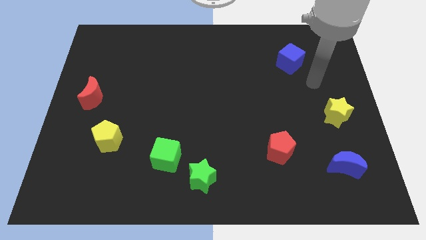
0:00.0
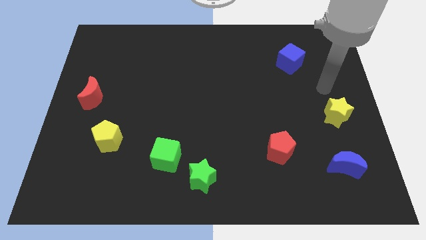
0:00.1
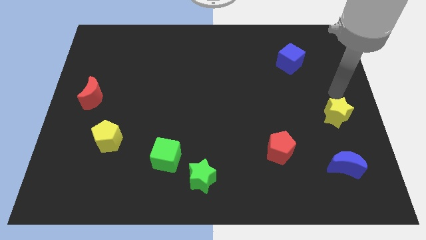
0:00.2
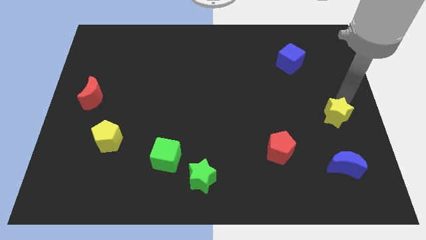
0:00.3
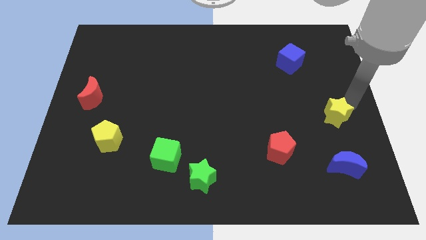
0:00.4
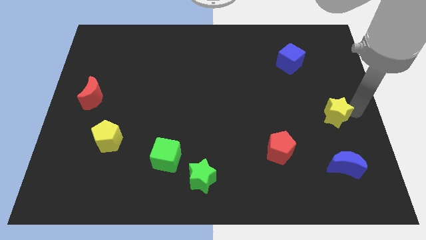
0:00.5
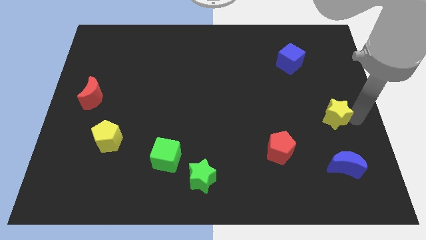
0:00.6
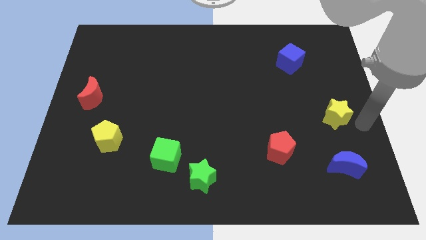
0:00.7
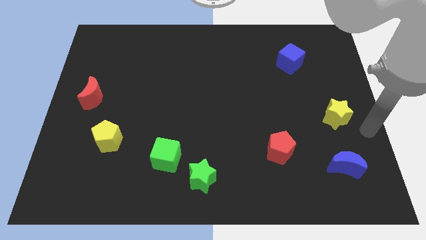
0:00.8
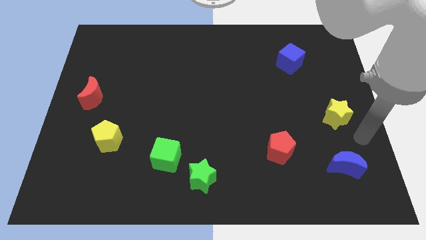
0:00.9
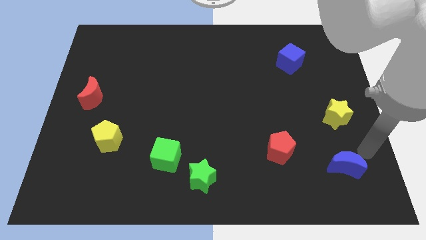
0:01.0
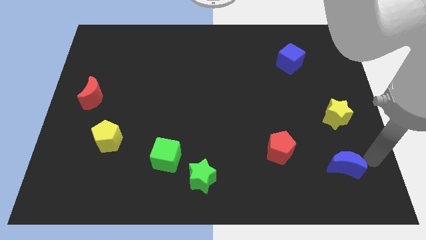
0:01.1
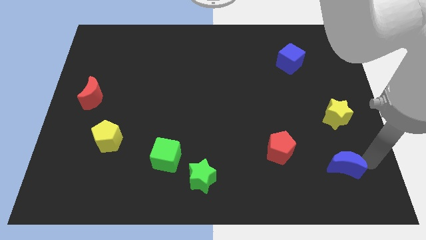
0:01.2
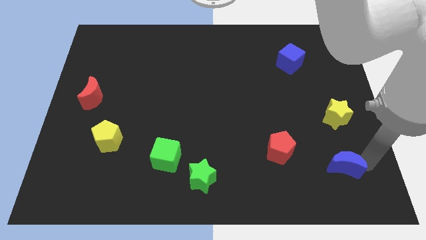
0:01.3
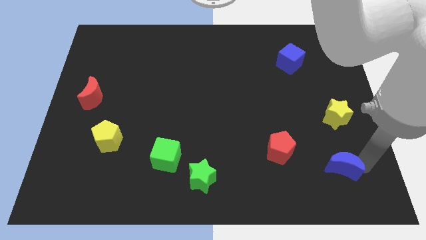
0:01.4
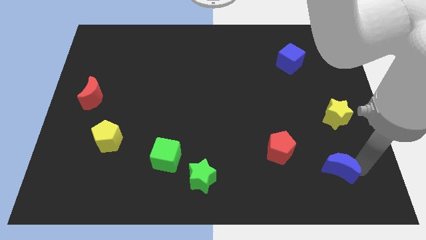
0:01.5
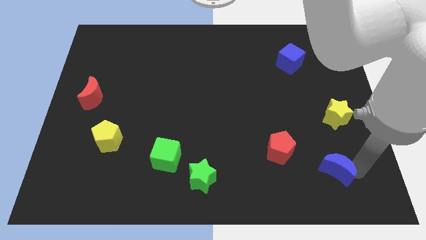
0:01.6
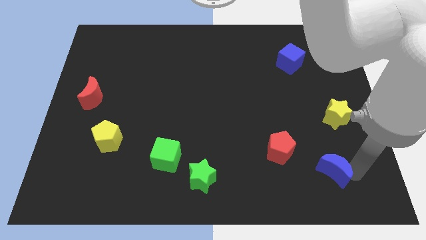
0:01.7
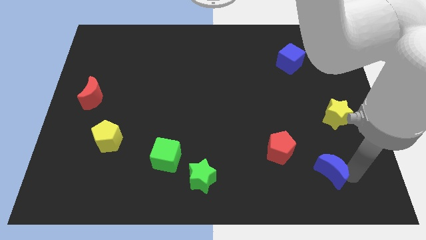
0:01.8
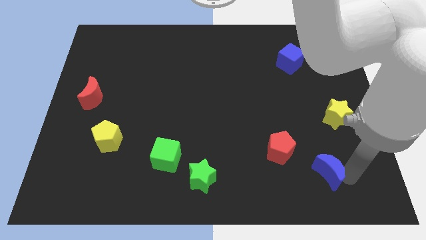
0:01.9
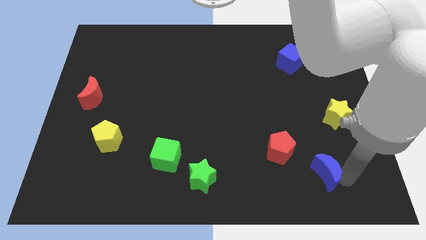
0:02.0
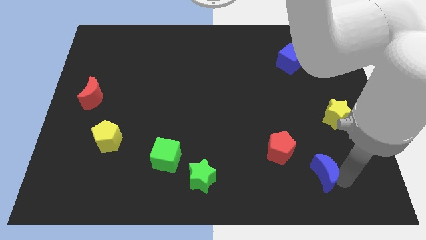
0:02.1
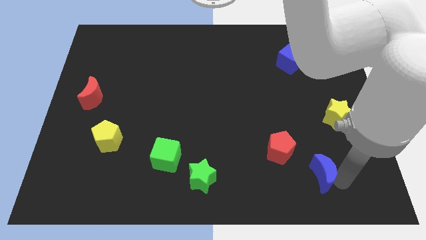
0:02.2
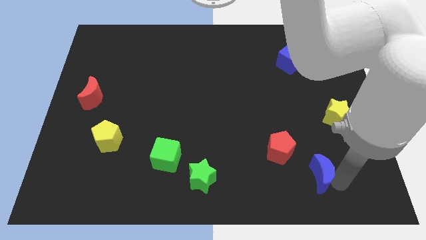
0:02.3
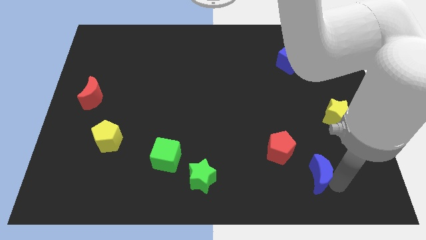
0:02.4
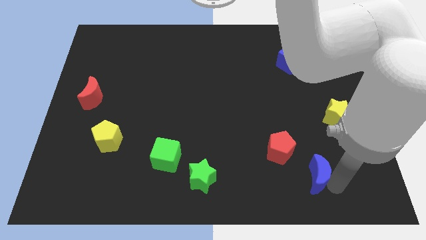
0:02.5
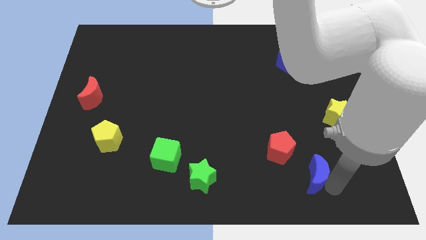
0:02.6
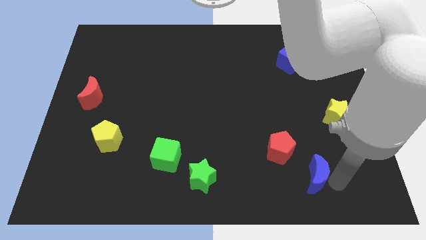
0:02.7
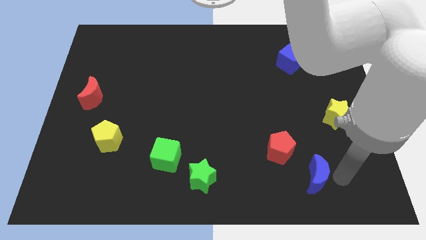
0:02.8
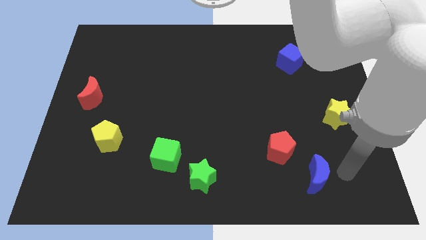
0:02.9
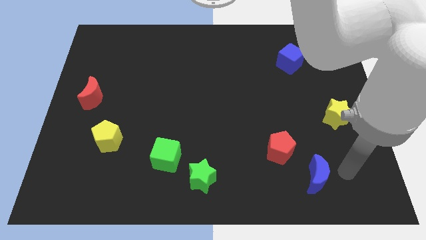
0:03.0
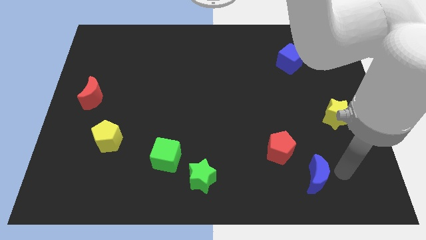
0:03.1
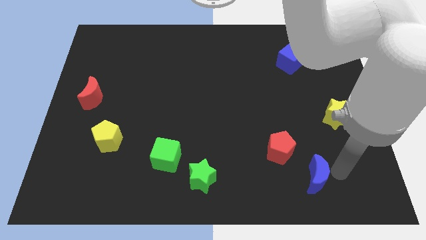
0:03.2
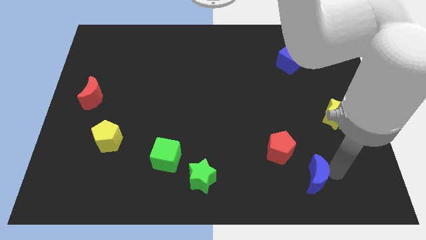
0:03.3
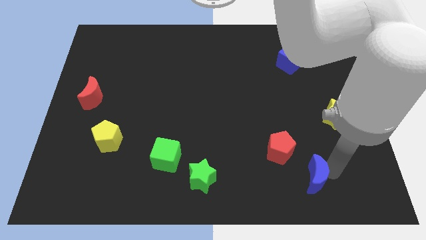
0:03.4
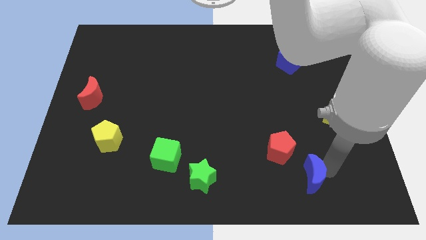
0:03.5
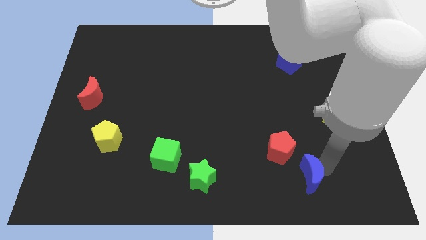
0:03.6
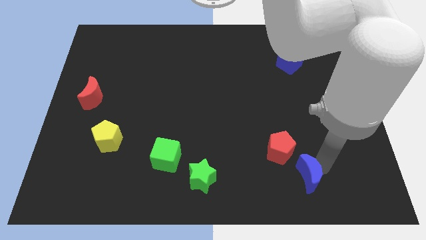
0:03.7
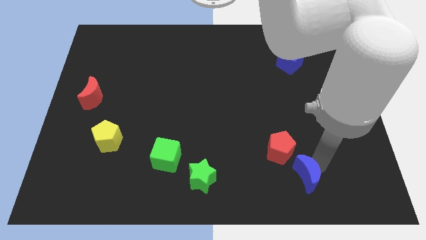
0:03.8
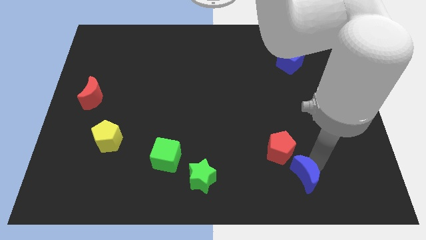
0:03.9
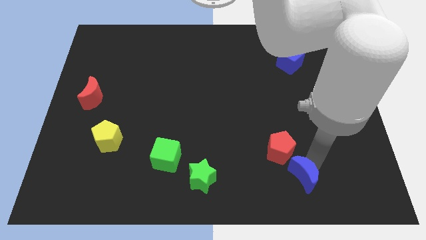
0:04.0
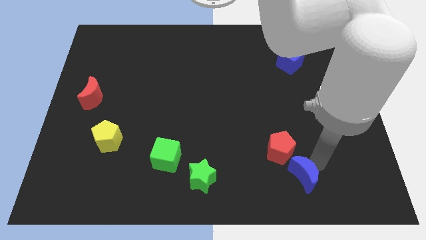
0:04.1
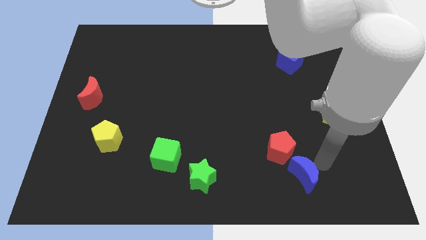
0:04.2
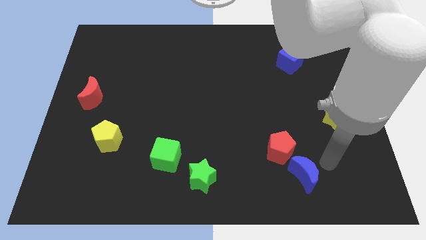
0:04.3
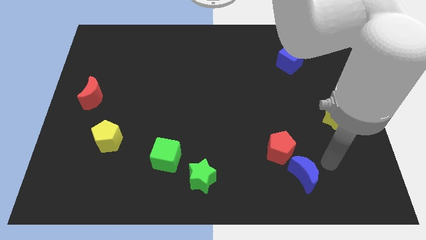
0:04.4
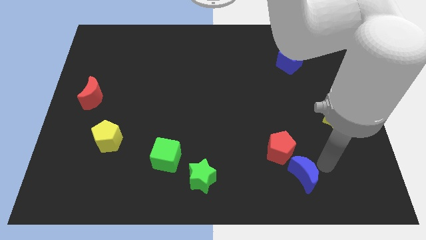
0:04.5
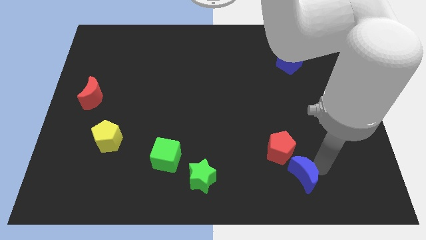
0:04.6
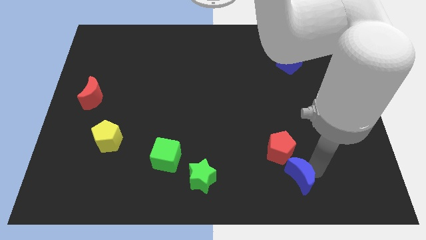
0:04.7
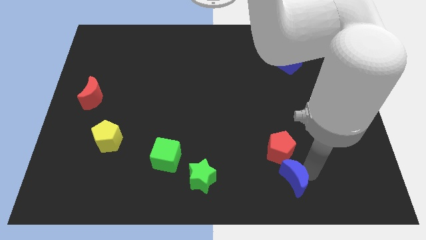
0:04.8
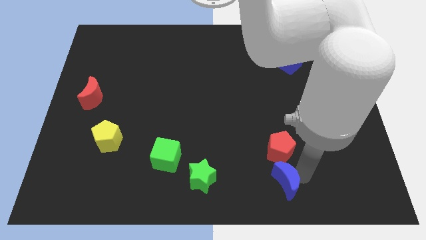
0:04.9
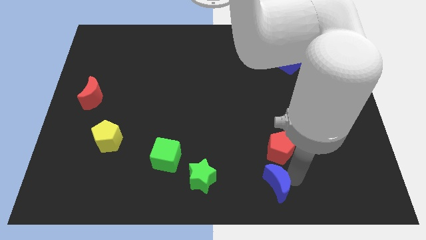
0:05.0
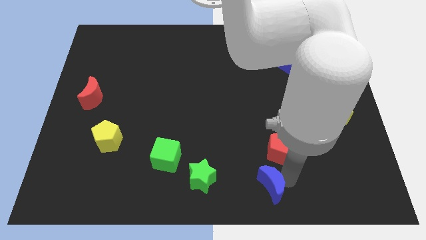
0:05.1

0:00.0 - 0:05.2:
move the blue moon to the bottom side

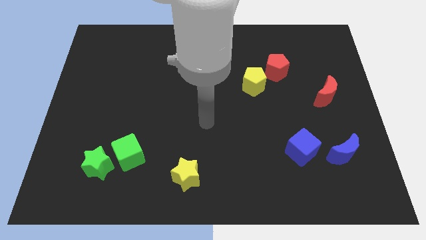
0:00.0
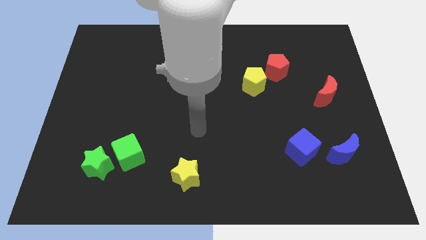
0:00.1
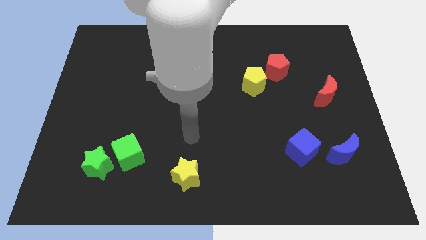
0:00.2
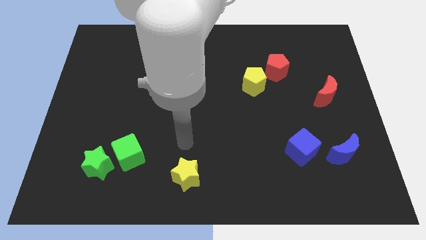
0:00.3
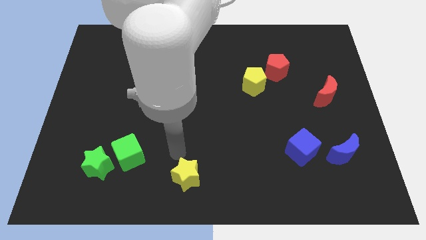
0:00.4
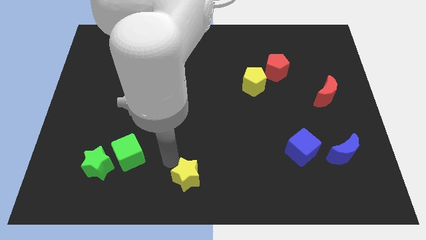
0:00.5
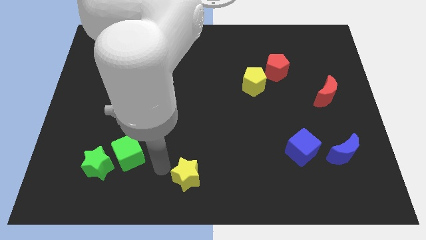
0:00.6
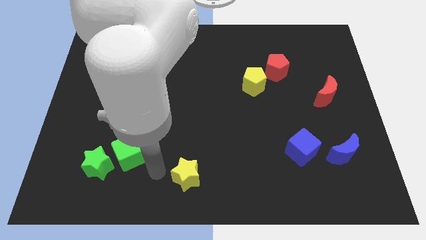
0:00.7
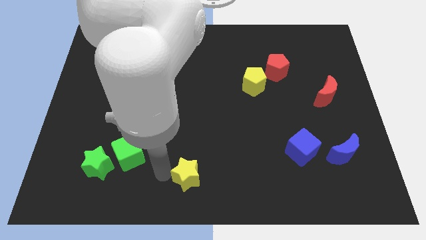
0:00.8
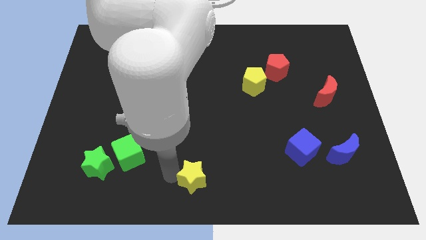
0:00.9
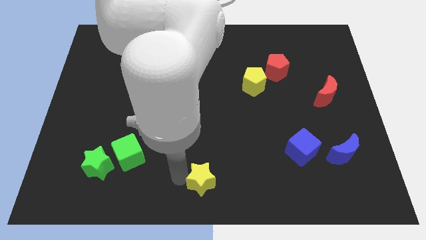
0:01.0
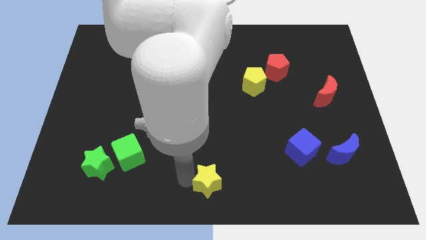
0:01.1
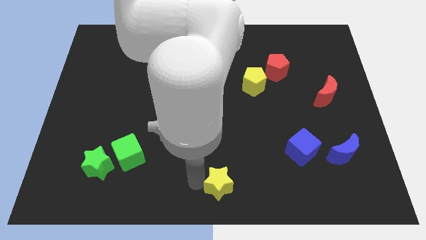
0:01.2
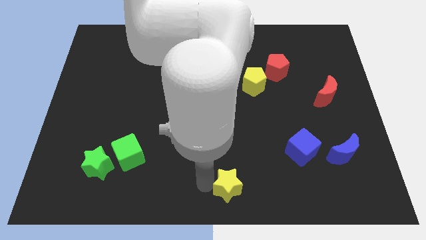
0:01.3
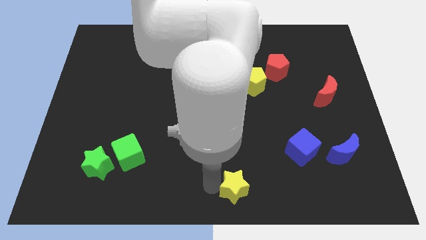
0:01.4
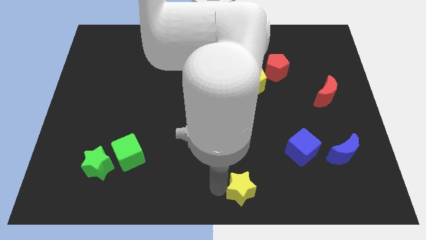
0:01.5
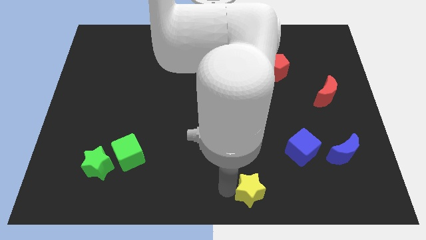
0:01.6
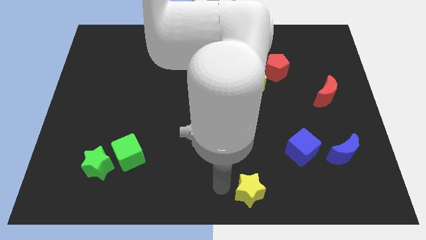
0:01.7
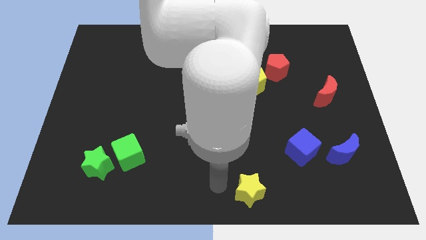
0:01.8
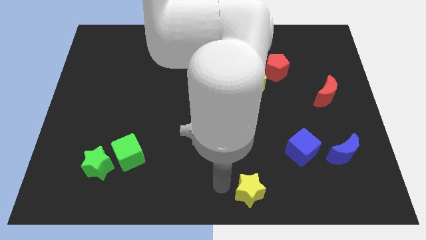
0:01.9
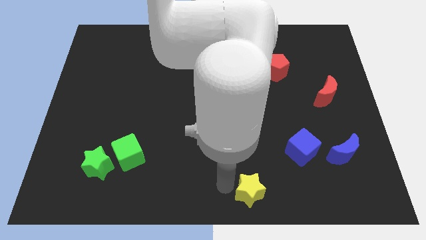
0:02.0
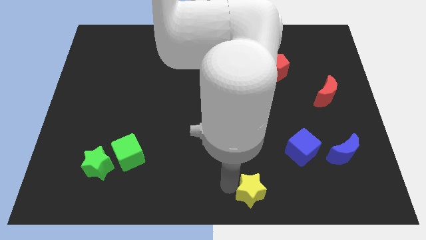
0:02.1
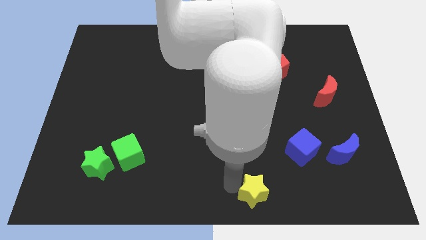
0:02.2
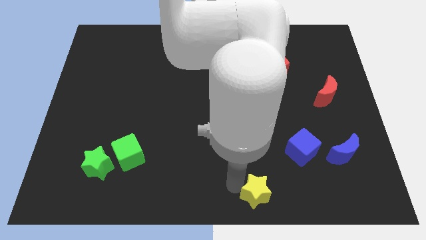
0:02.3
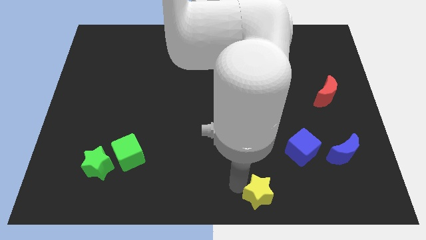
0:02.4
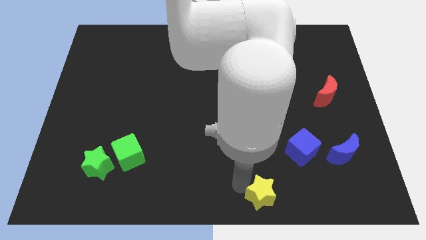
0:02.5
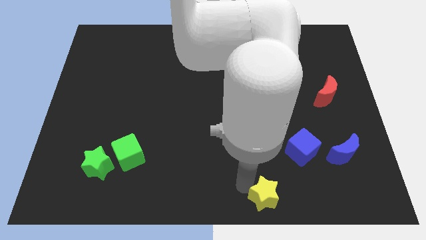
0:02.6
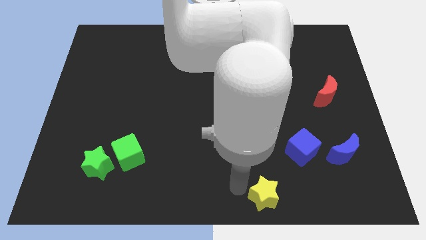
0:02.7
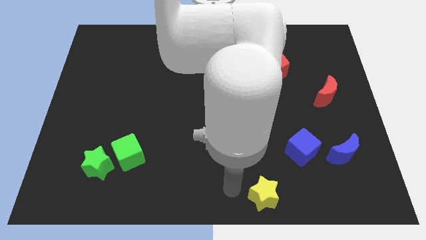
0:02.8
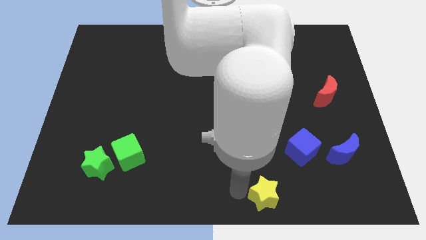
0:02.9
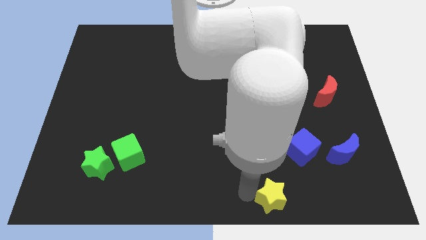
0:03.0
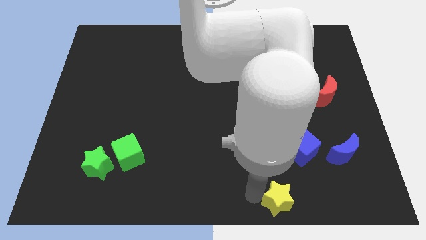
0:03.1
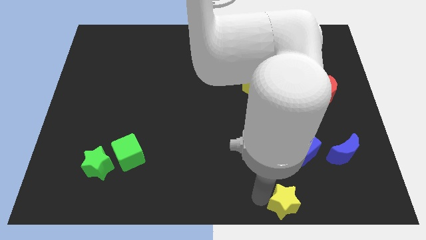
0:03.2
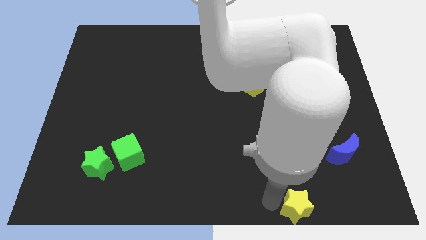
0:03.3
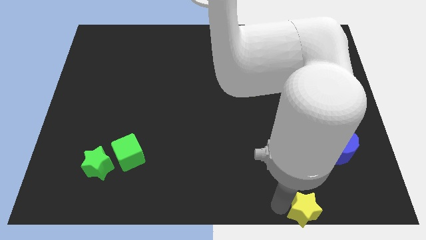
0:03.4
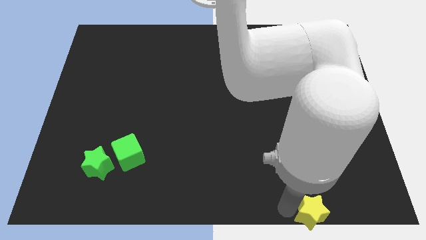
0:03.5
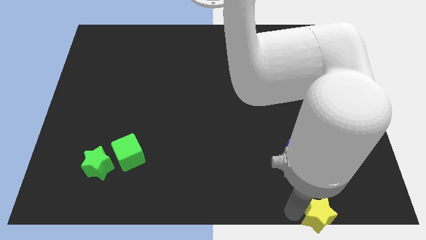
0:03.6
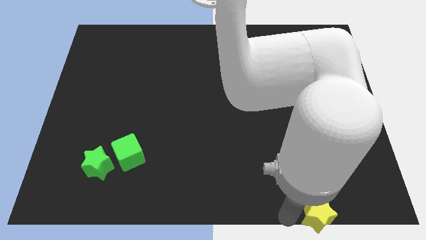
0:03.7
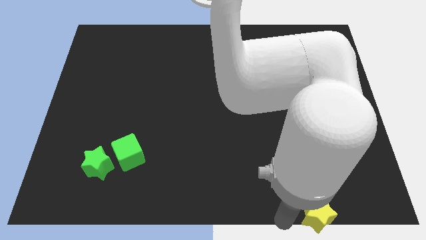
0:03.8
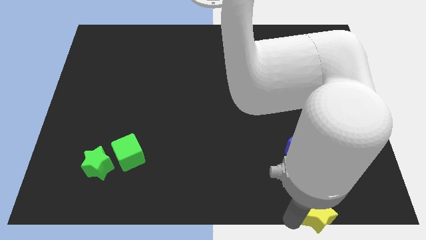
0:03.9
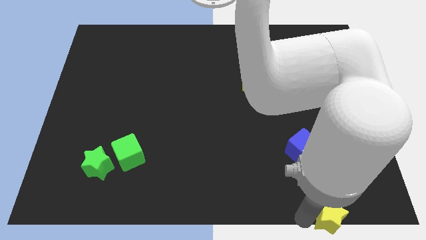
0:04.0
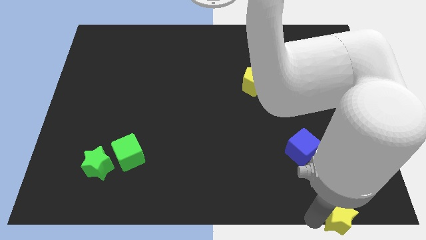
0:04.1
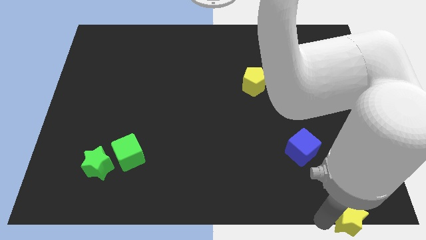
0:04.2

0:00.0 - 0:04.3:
slide the yellow star to the bottom right of the board
